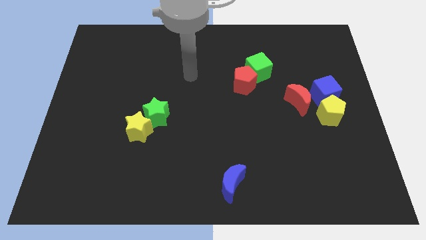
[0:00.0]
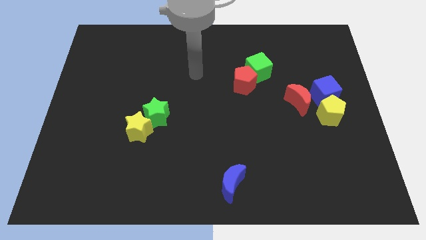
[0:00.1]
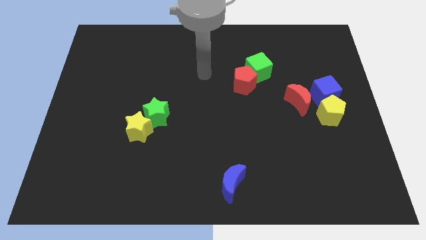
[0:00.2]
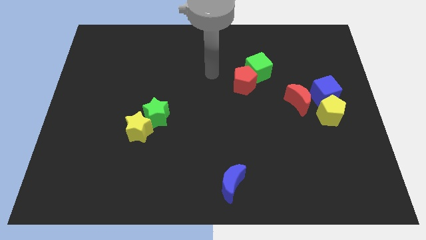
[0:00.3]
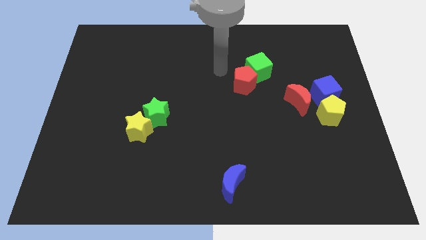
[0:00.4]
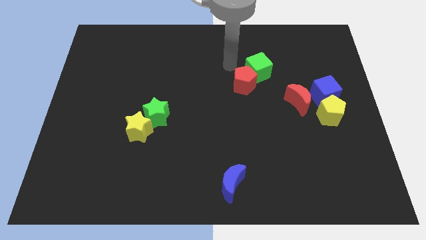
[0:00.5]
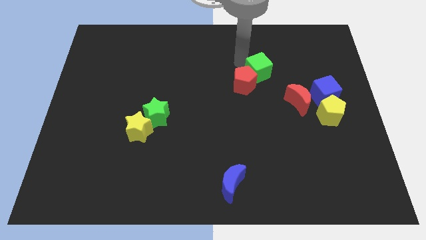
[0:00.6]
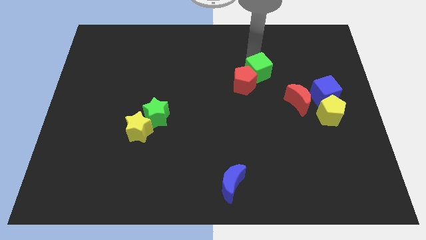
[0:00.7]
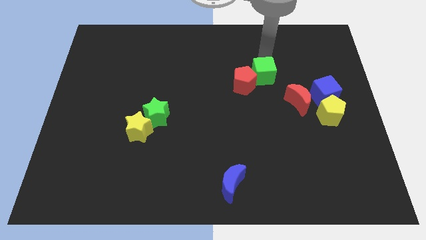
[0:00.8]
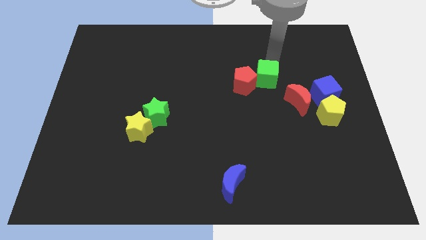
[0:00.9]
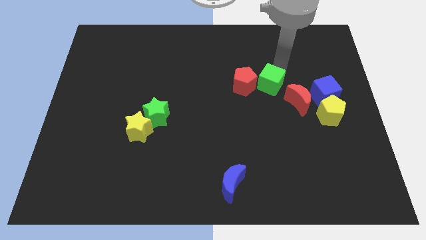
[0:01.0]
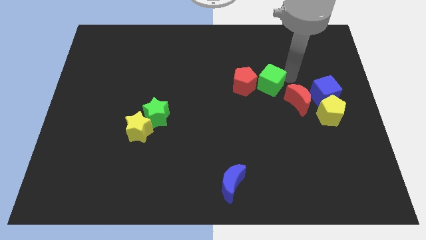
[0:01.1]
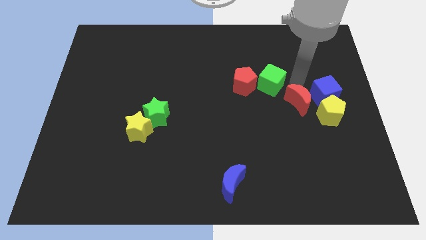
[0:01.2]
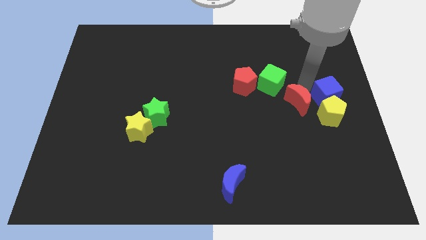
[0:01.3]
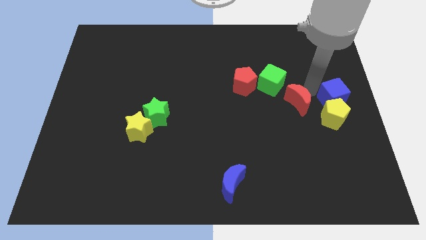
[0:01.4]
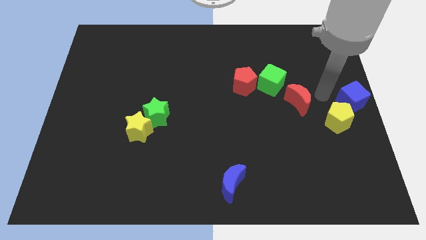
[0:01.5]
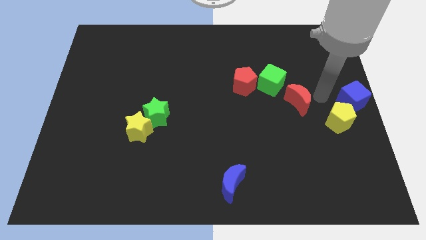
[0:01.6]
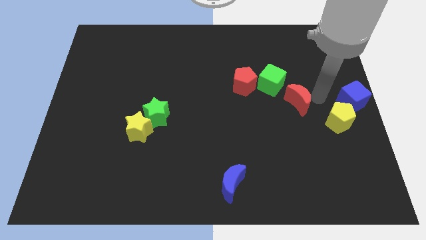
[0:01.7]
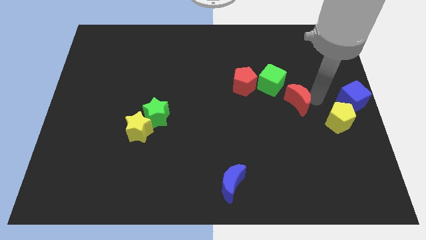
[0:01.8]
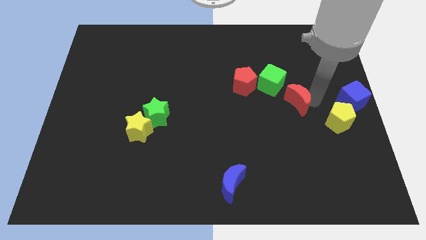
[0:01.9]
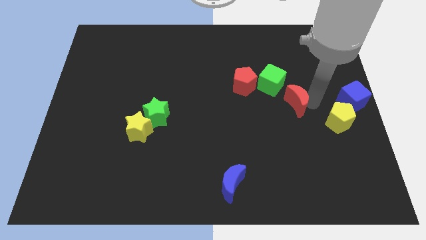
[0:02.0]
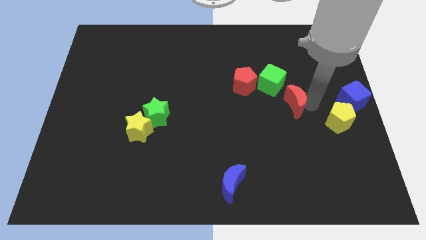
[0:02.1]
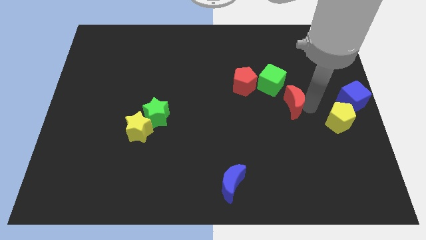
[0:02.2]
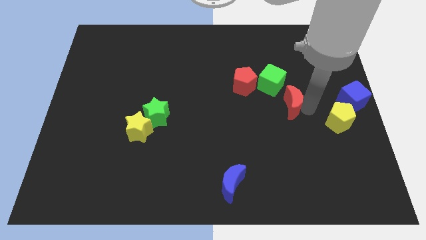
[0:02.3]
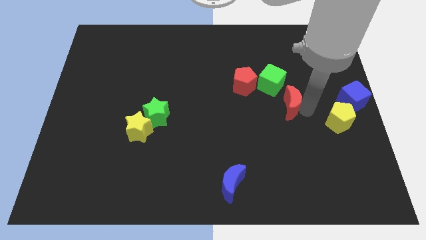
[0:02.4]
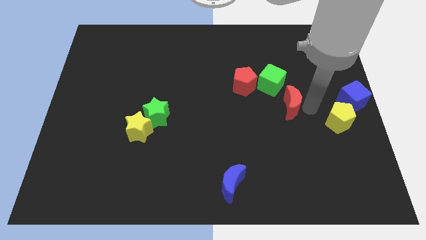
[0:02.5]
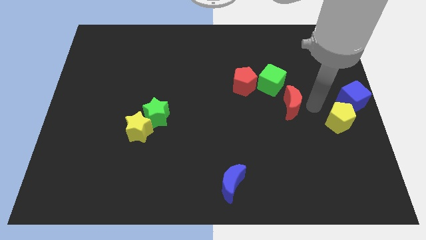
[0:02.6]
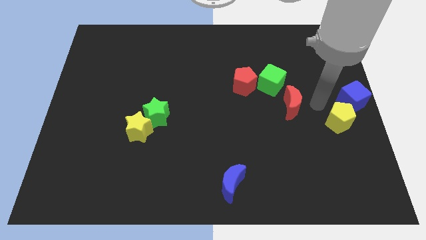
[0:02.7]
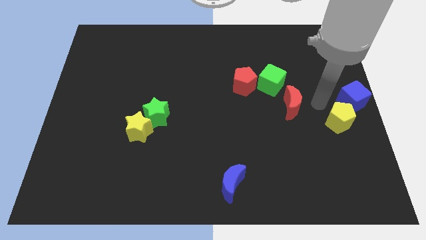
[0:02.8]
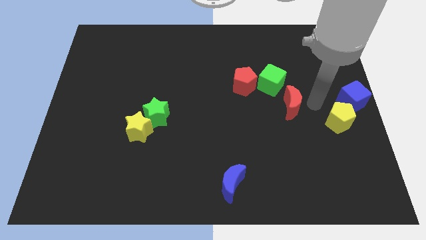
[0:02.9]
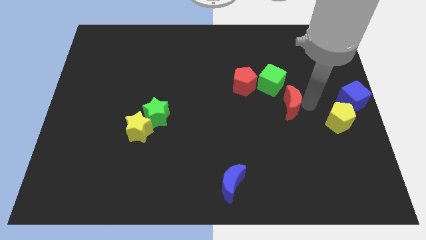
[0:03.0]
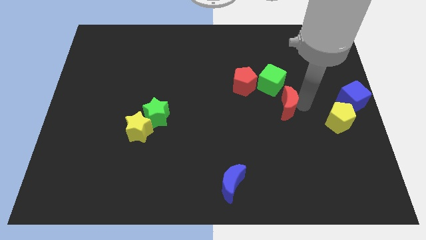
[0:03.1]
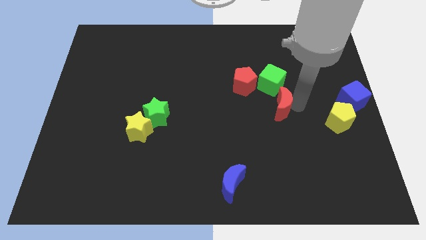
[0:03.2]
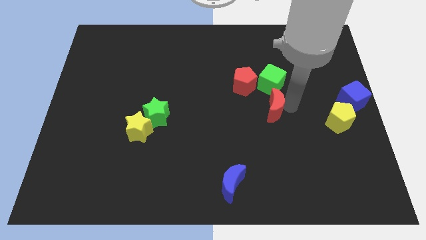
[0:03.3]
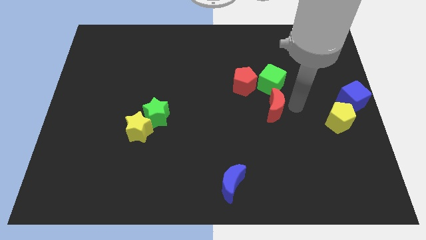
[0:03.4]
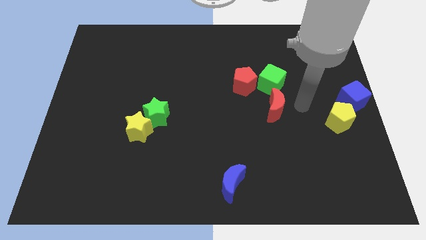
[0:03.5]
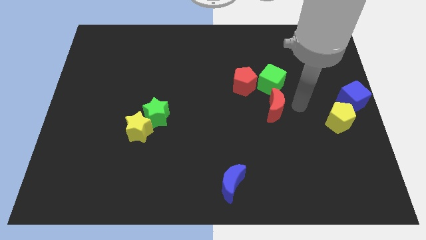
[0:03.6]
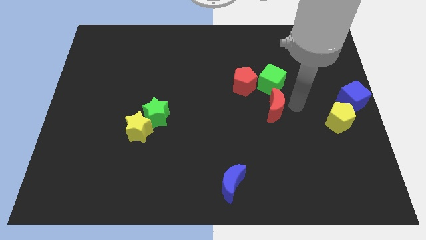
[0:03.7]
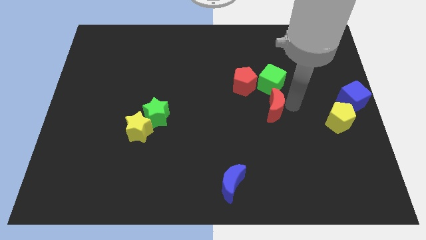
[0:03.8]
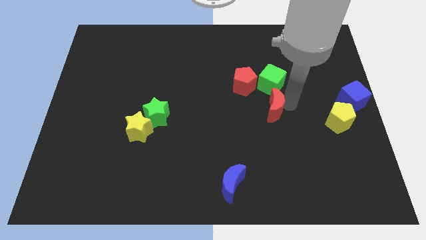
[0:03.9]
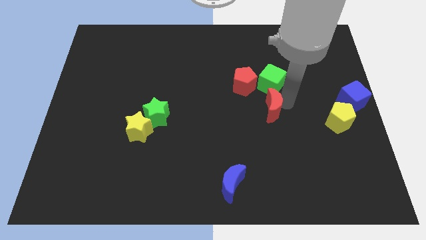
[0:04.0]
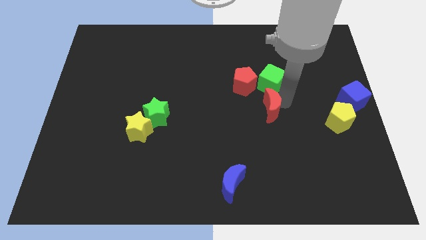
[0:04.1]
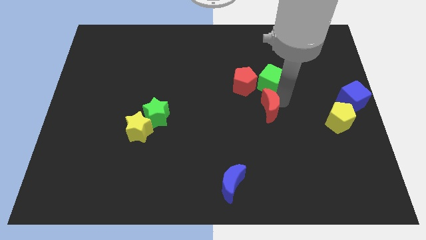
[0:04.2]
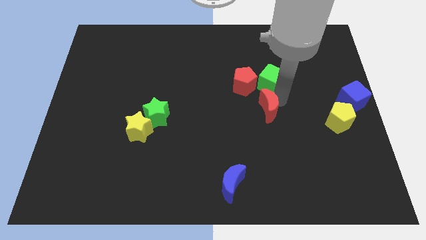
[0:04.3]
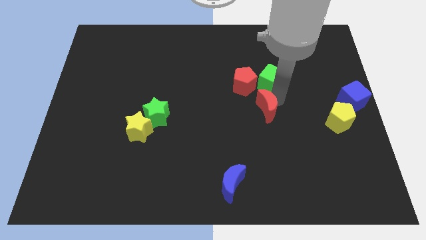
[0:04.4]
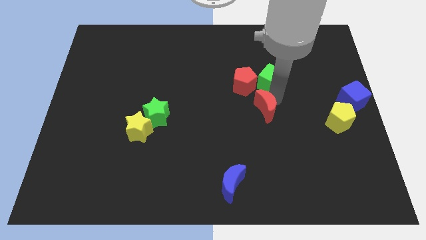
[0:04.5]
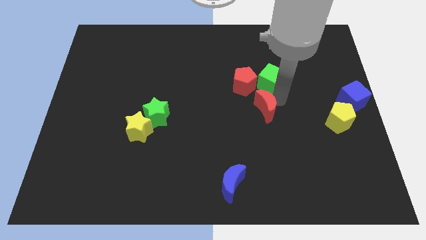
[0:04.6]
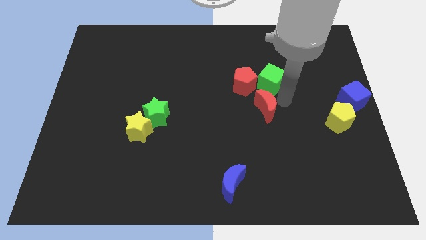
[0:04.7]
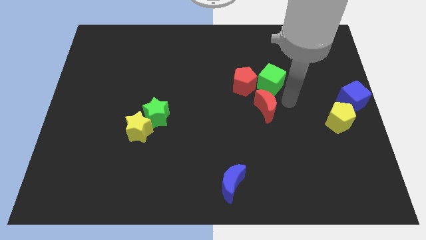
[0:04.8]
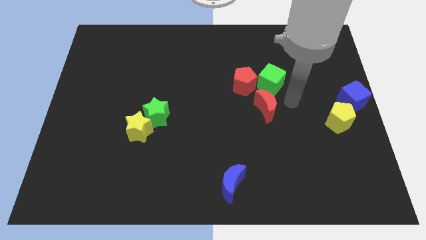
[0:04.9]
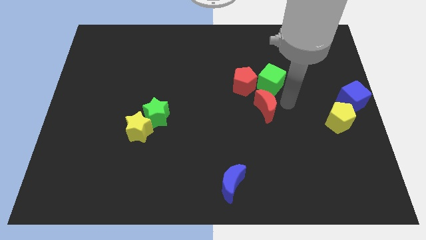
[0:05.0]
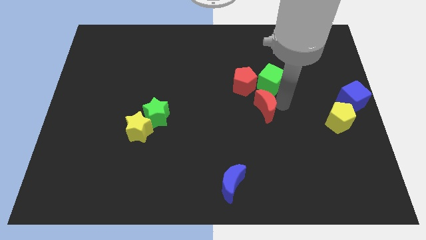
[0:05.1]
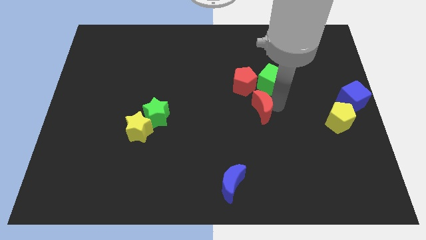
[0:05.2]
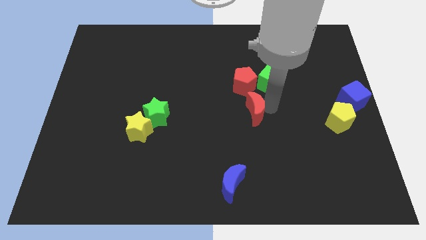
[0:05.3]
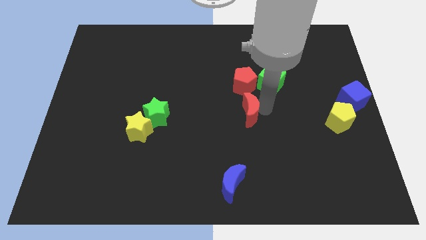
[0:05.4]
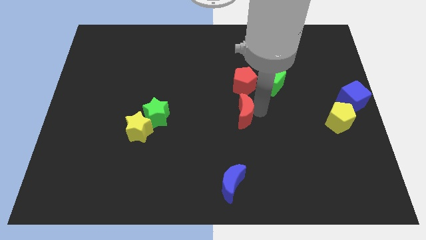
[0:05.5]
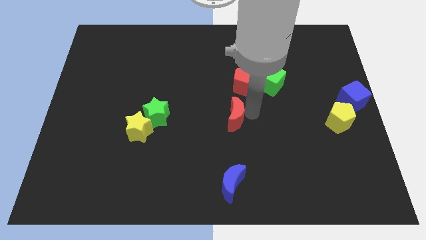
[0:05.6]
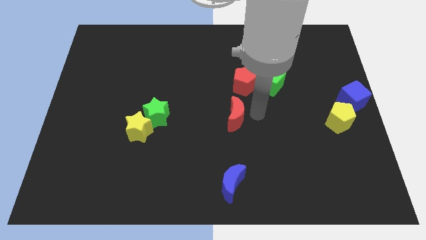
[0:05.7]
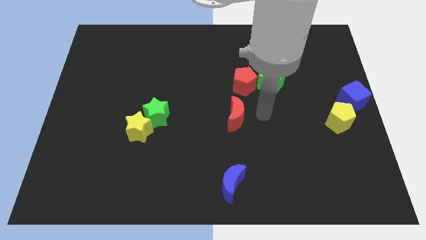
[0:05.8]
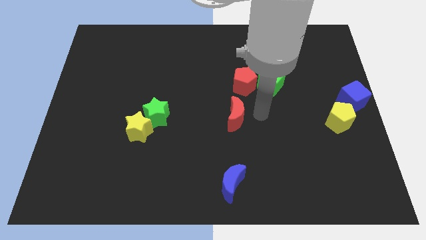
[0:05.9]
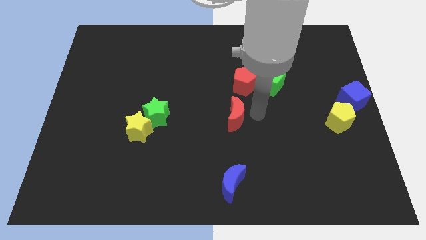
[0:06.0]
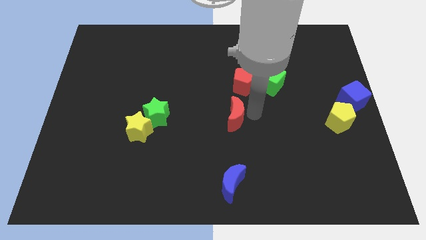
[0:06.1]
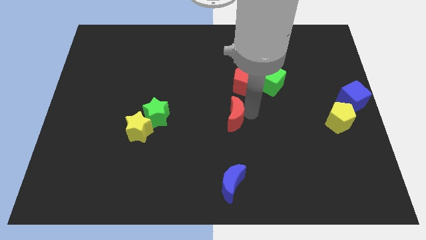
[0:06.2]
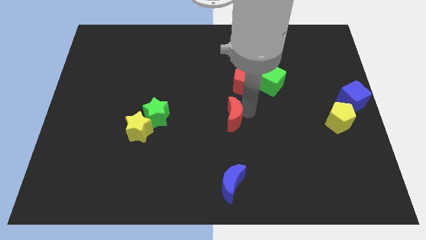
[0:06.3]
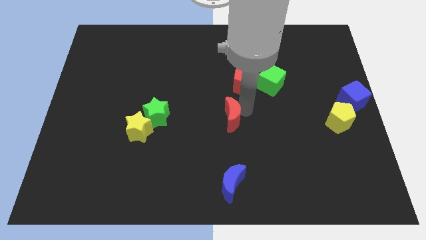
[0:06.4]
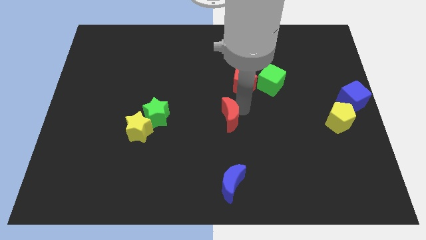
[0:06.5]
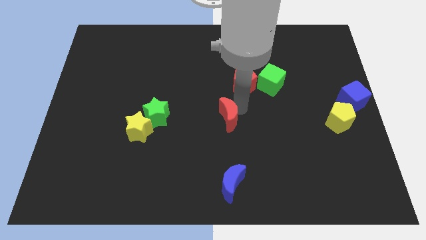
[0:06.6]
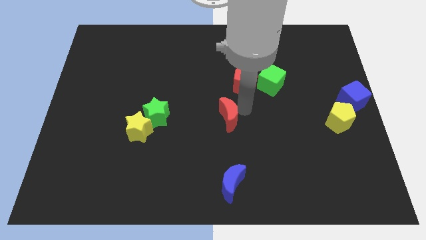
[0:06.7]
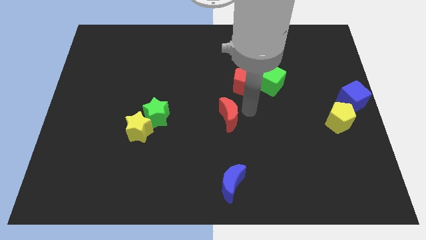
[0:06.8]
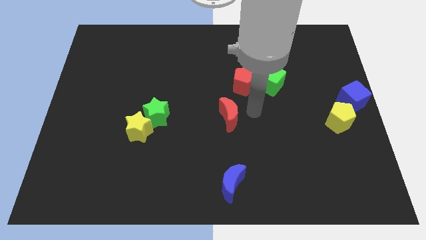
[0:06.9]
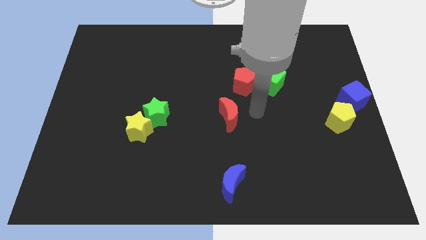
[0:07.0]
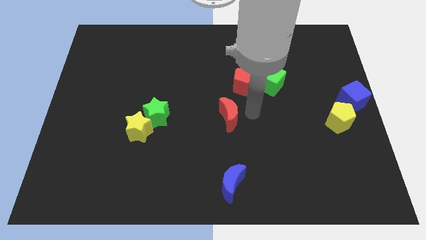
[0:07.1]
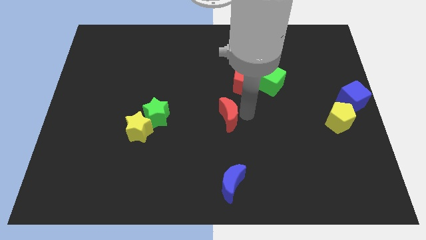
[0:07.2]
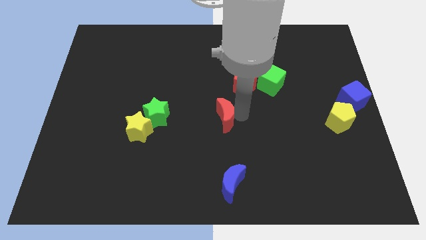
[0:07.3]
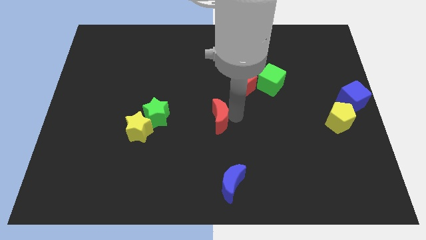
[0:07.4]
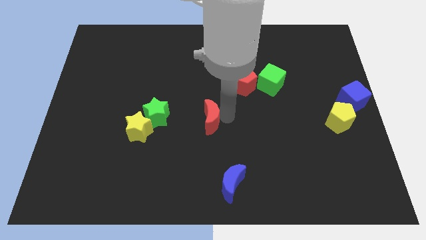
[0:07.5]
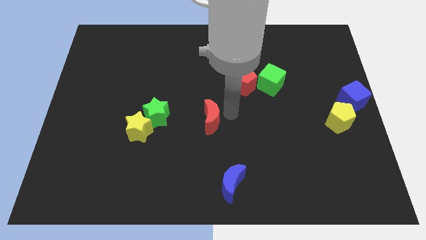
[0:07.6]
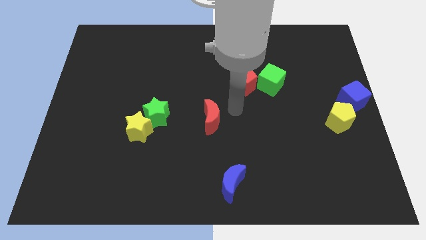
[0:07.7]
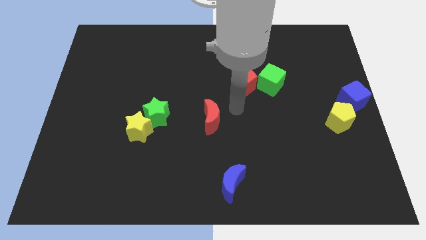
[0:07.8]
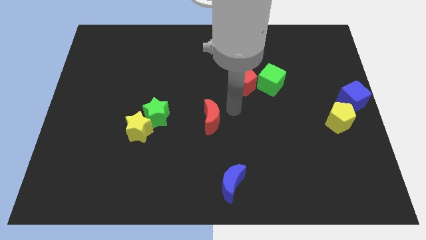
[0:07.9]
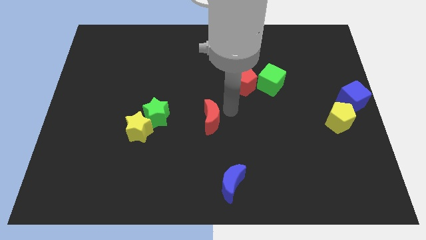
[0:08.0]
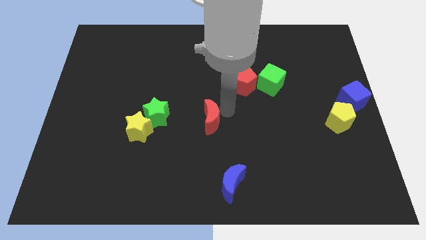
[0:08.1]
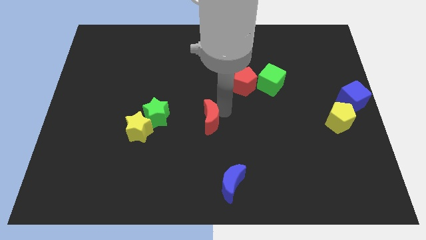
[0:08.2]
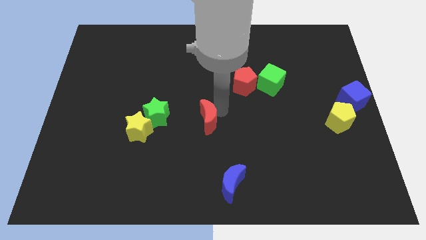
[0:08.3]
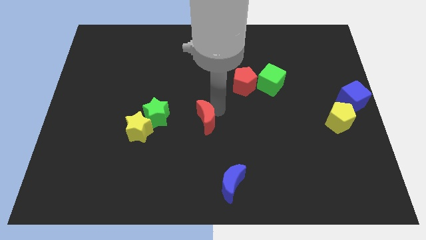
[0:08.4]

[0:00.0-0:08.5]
slide the red moon right of the yellow star
